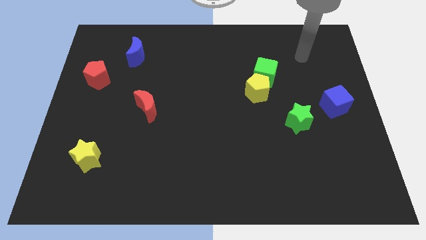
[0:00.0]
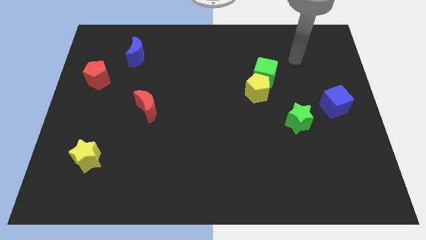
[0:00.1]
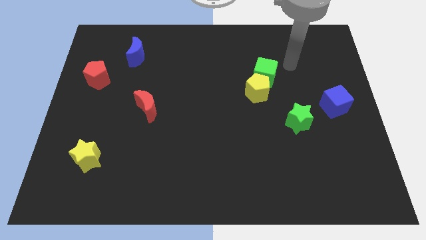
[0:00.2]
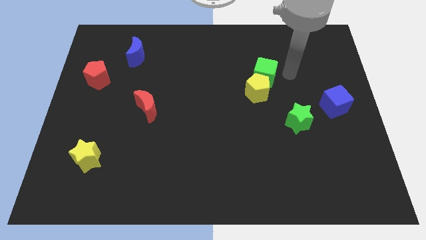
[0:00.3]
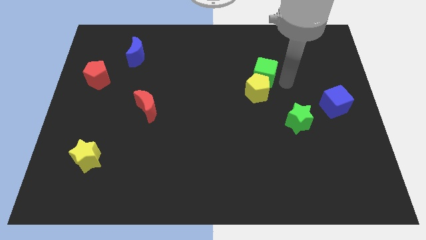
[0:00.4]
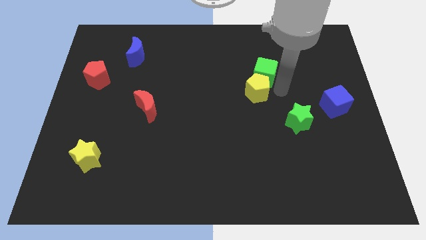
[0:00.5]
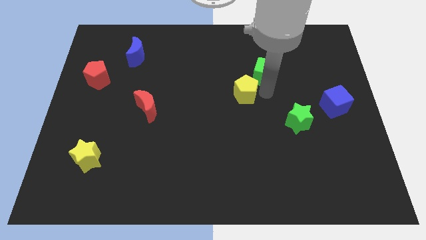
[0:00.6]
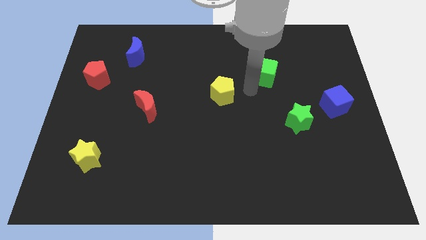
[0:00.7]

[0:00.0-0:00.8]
separate the green cube from the yellow pentagon

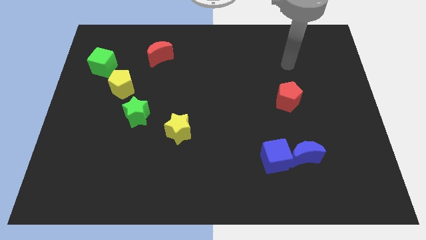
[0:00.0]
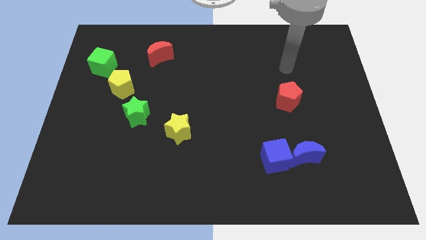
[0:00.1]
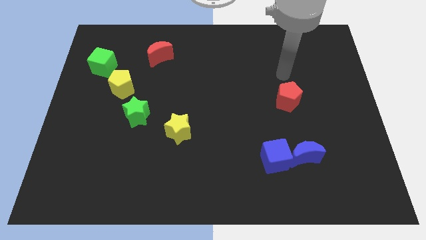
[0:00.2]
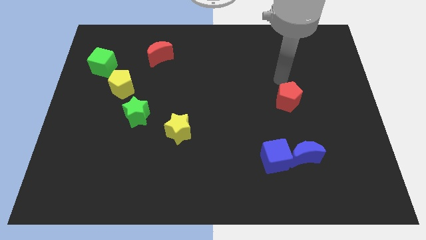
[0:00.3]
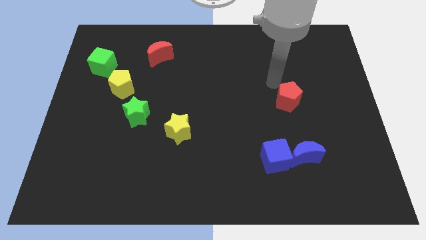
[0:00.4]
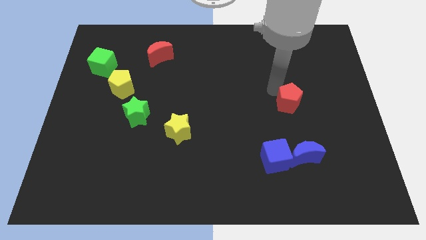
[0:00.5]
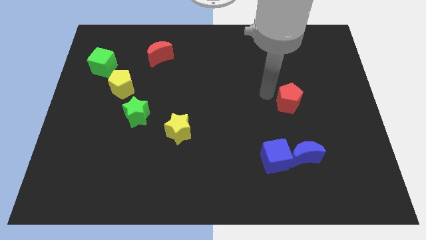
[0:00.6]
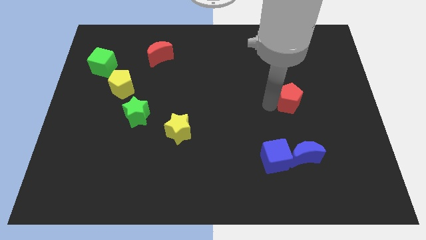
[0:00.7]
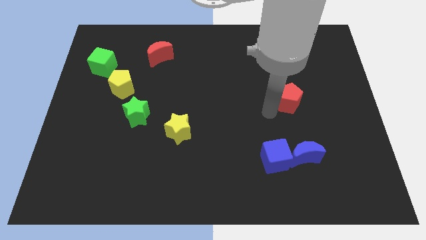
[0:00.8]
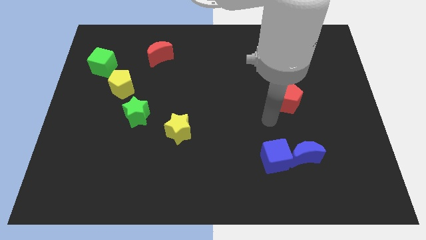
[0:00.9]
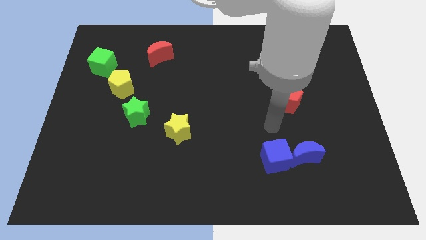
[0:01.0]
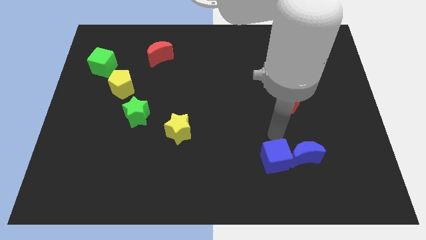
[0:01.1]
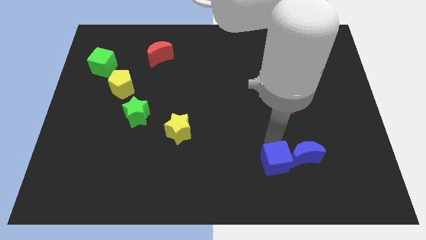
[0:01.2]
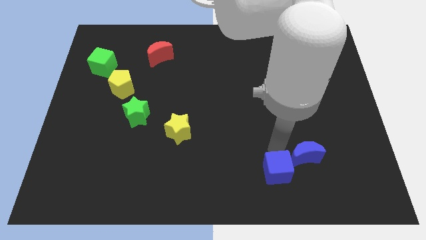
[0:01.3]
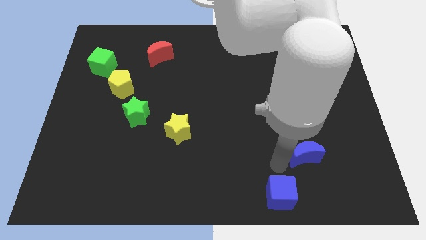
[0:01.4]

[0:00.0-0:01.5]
separate the blue moon from the blue cube

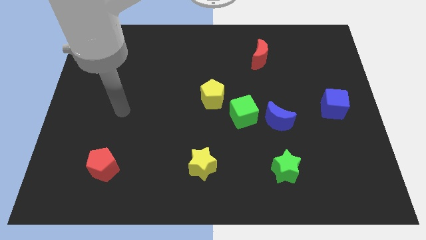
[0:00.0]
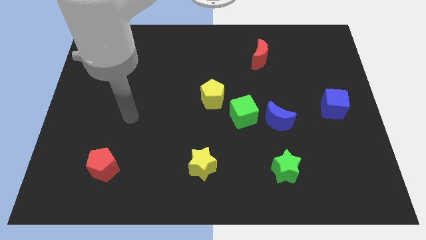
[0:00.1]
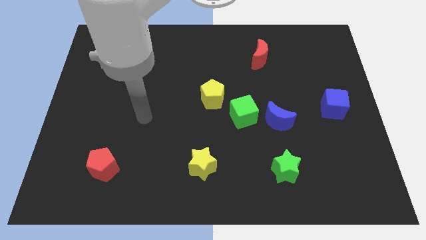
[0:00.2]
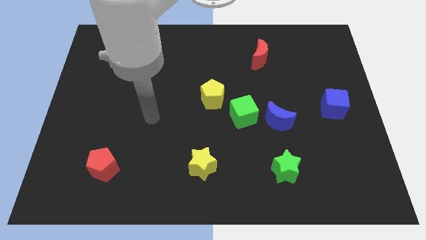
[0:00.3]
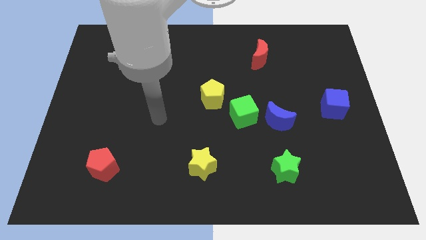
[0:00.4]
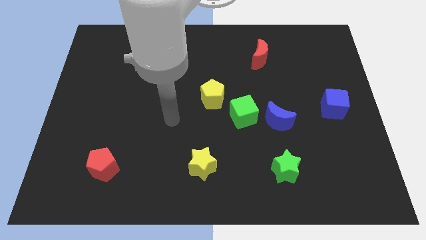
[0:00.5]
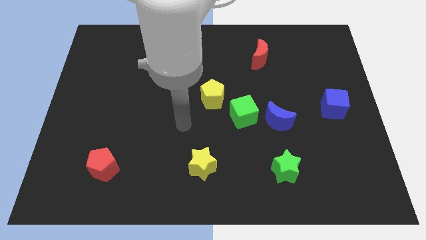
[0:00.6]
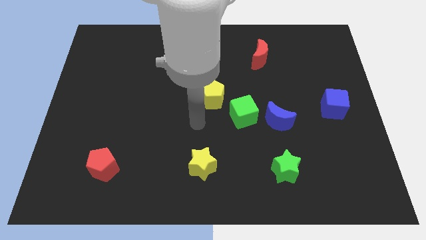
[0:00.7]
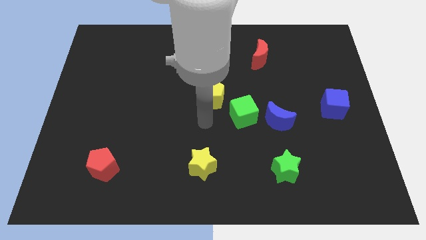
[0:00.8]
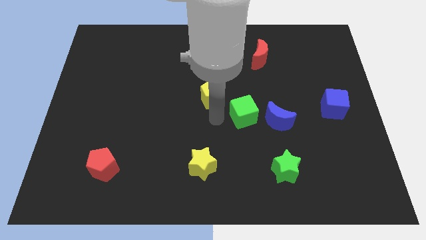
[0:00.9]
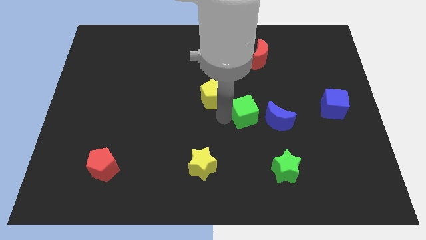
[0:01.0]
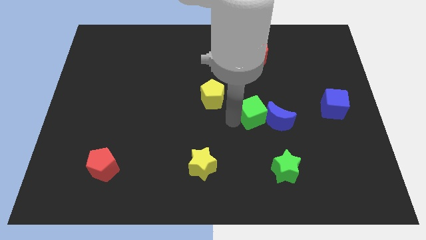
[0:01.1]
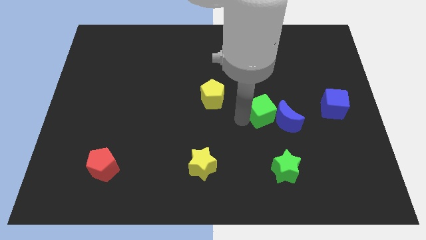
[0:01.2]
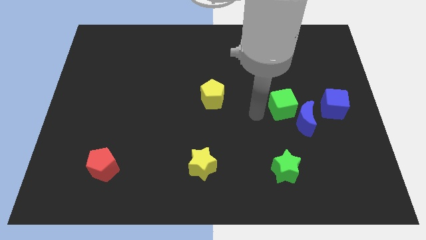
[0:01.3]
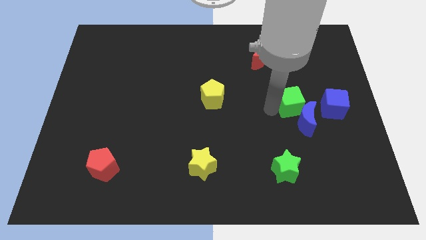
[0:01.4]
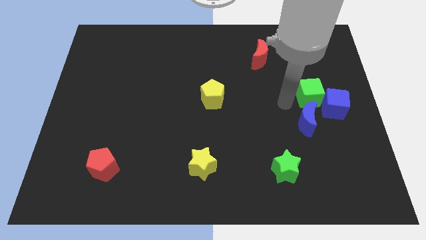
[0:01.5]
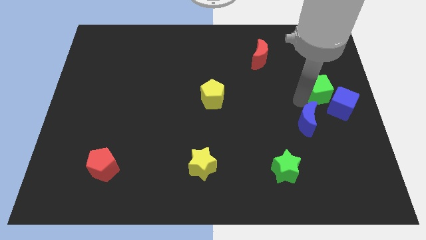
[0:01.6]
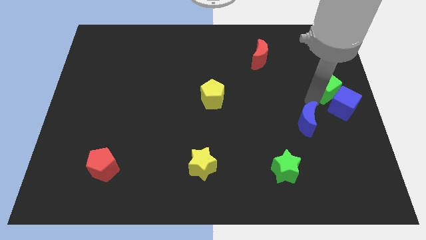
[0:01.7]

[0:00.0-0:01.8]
pull the blue moon apart from the green cube

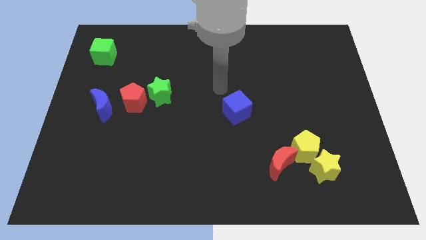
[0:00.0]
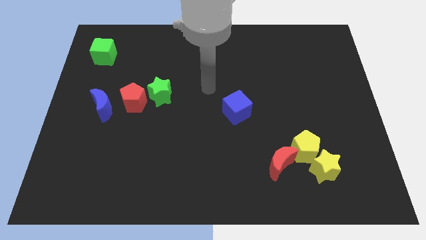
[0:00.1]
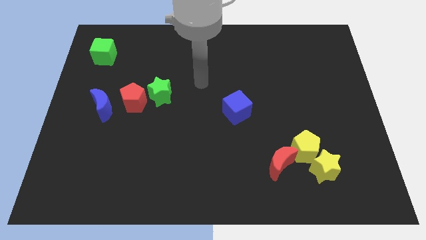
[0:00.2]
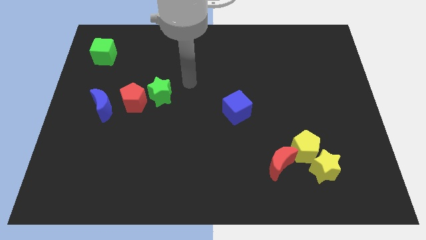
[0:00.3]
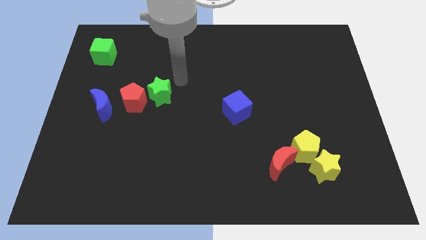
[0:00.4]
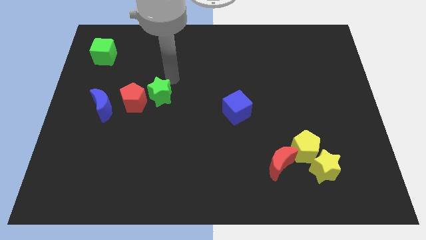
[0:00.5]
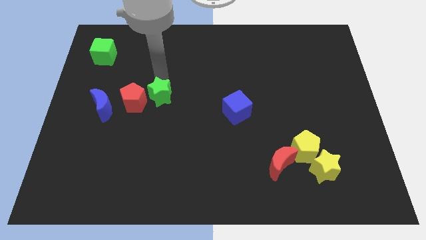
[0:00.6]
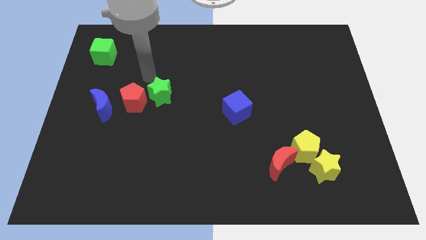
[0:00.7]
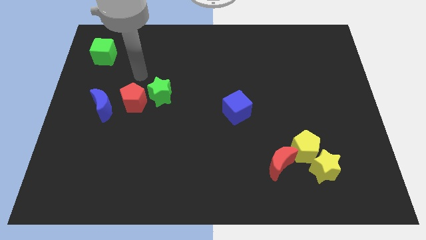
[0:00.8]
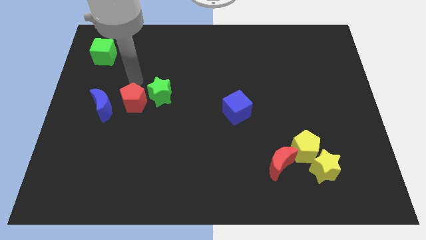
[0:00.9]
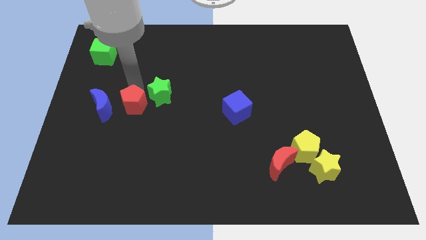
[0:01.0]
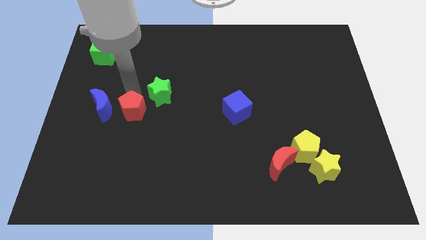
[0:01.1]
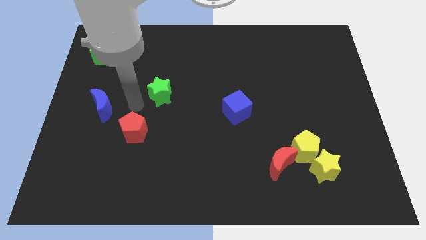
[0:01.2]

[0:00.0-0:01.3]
pull the green star apart from the red pentagon

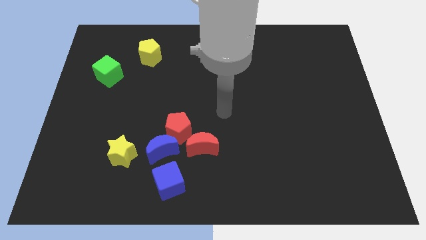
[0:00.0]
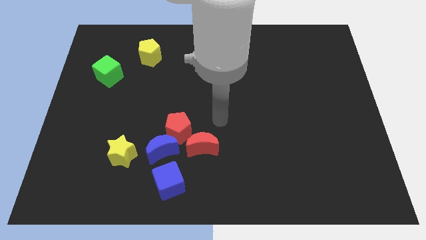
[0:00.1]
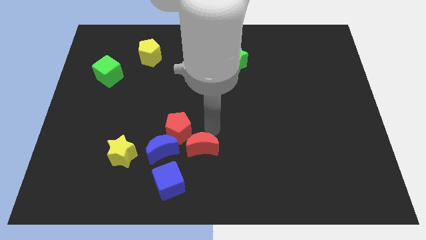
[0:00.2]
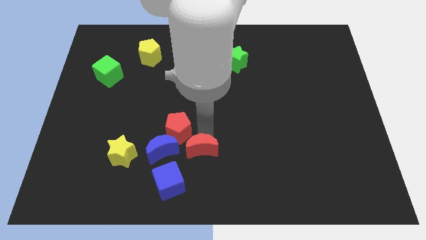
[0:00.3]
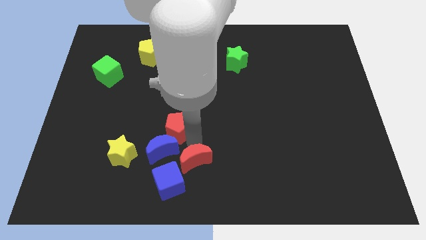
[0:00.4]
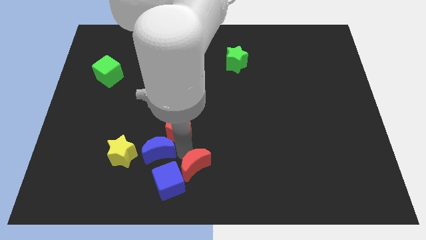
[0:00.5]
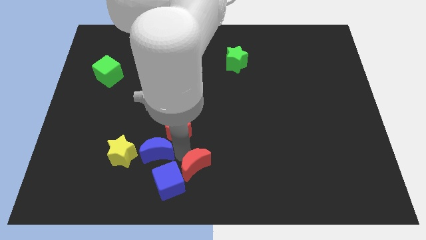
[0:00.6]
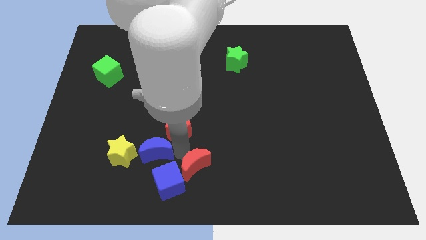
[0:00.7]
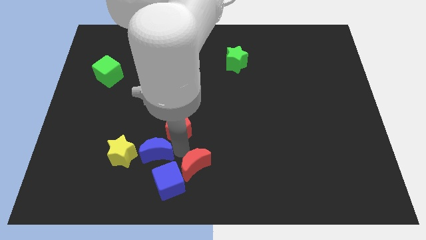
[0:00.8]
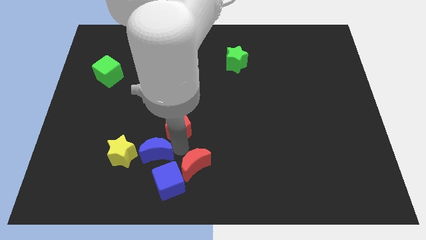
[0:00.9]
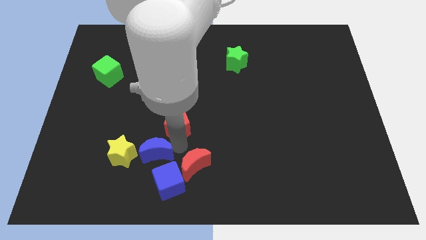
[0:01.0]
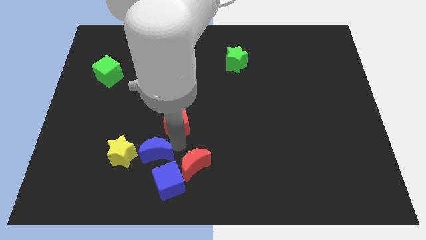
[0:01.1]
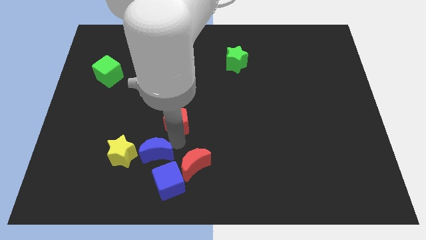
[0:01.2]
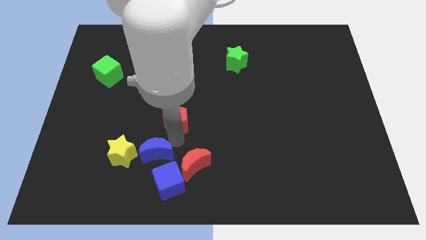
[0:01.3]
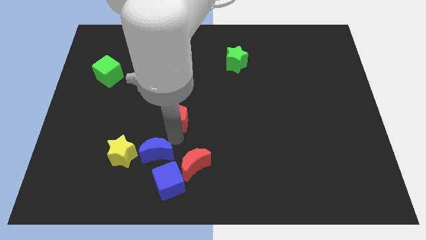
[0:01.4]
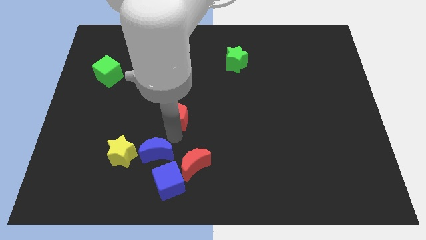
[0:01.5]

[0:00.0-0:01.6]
separate the red pentagon from the blue moon and red moon

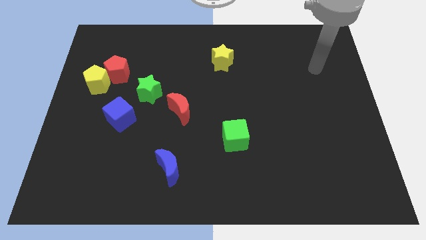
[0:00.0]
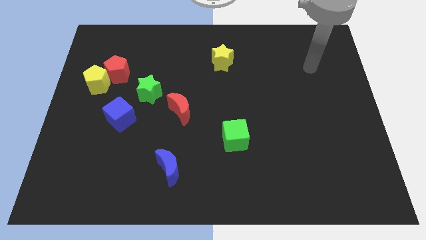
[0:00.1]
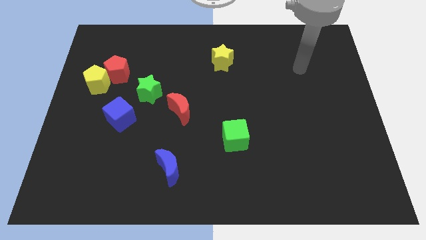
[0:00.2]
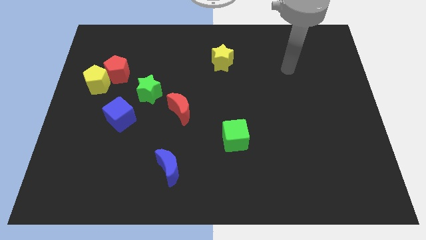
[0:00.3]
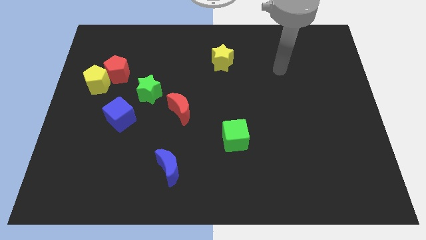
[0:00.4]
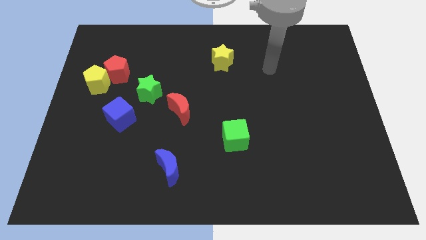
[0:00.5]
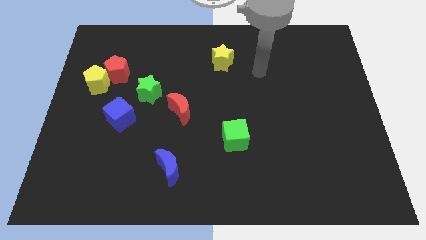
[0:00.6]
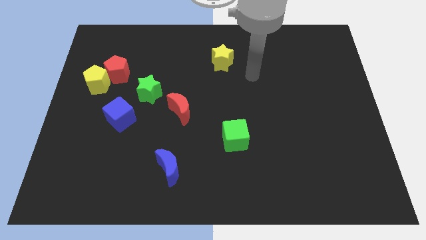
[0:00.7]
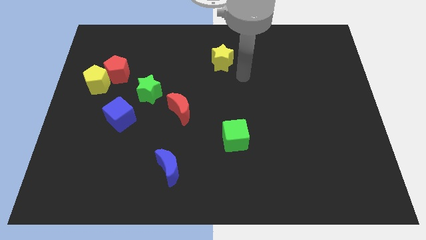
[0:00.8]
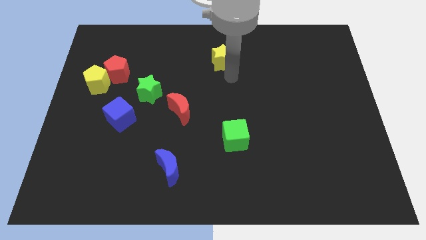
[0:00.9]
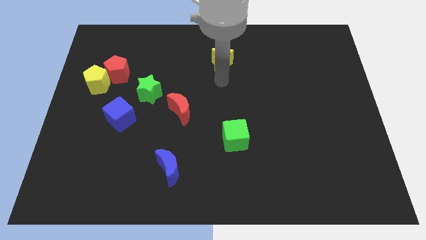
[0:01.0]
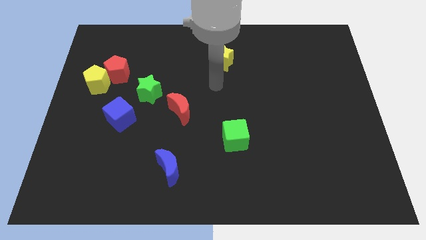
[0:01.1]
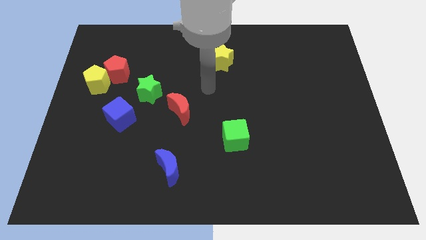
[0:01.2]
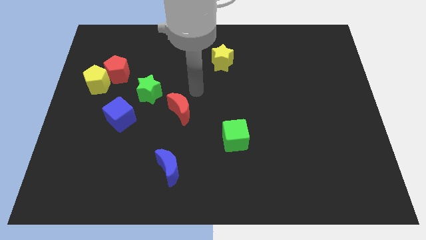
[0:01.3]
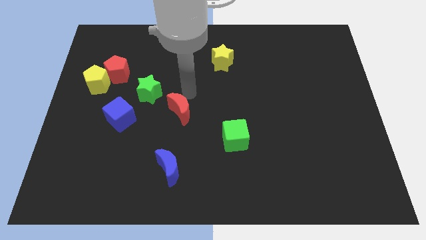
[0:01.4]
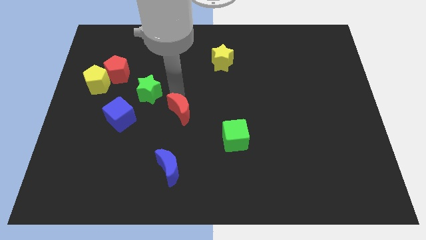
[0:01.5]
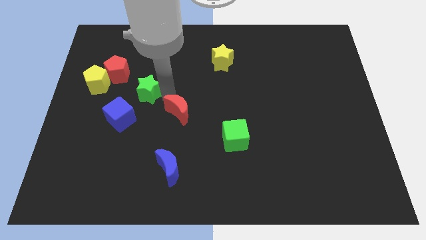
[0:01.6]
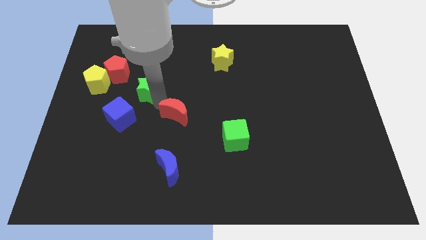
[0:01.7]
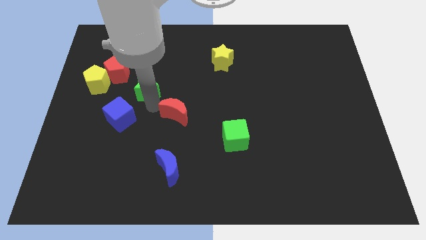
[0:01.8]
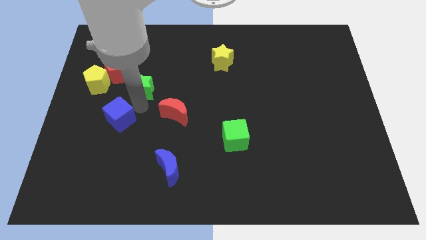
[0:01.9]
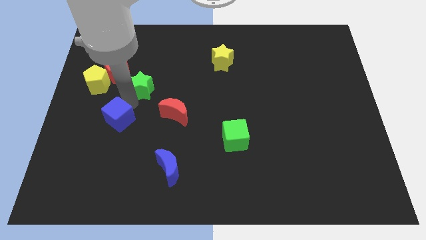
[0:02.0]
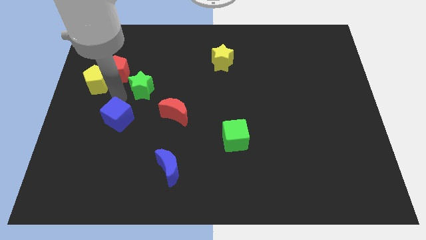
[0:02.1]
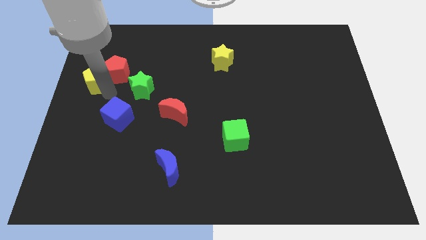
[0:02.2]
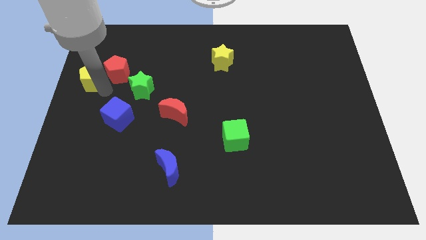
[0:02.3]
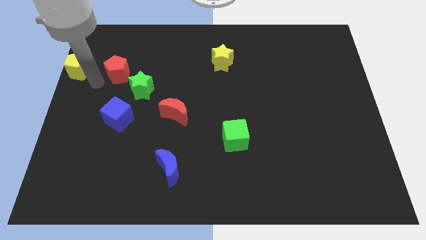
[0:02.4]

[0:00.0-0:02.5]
separate the red pentagon from the yellow pentagon
